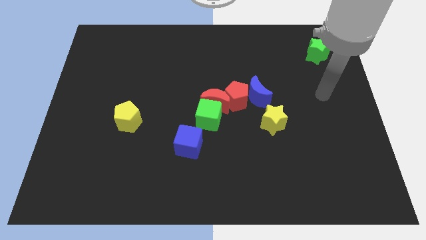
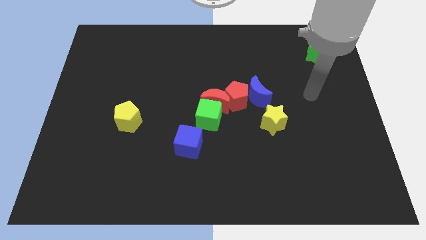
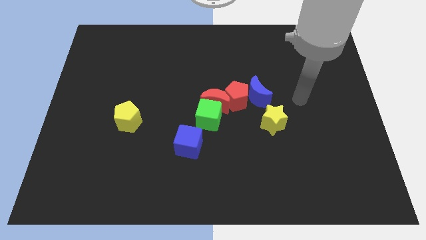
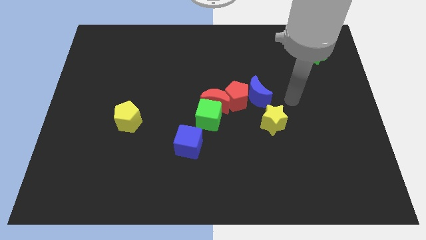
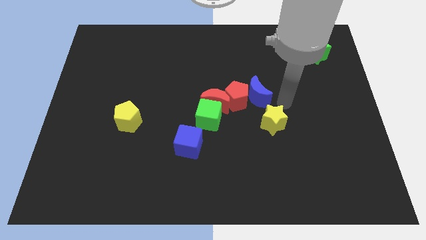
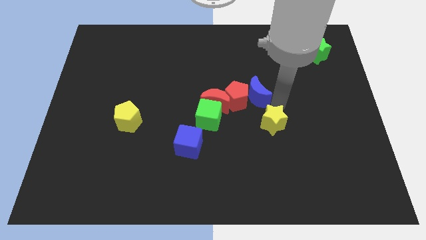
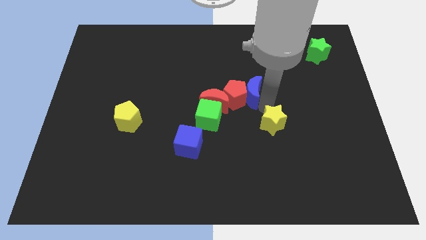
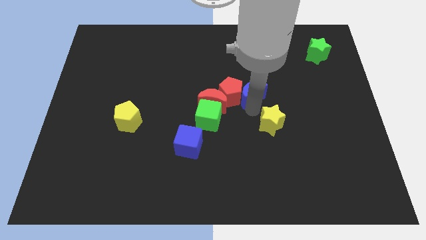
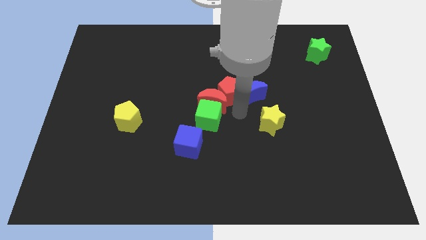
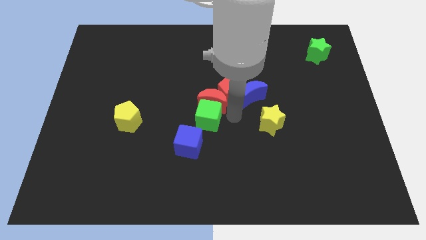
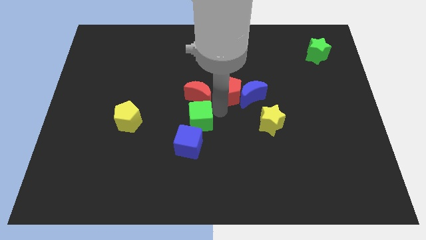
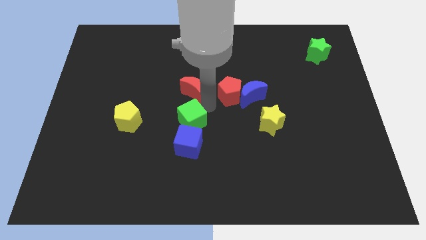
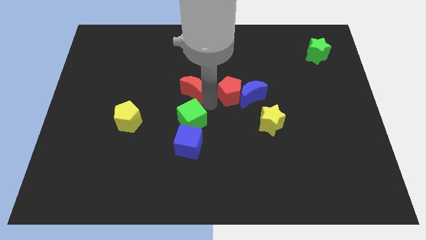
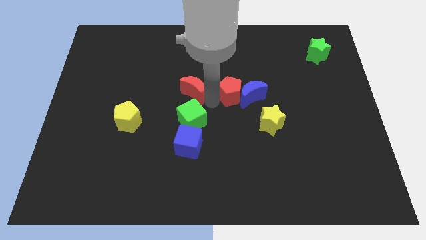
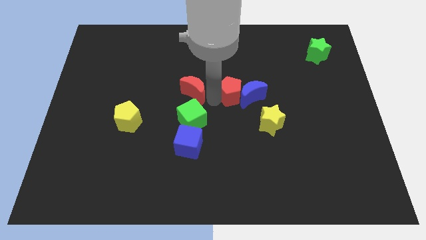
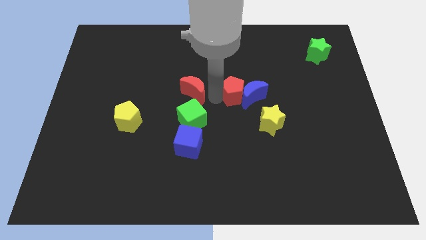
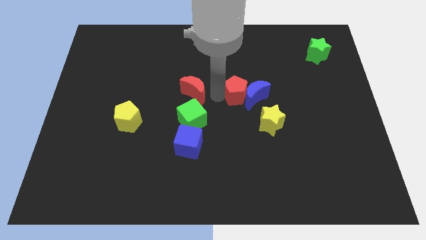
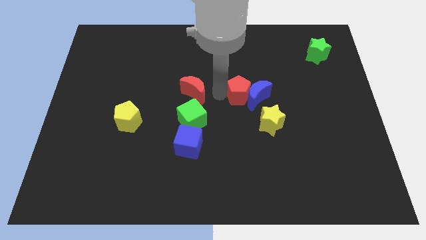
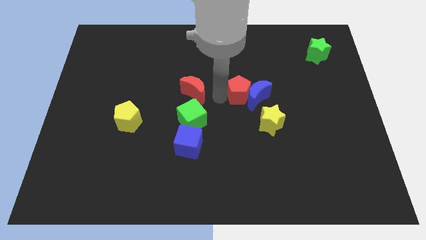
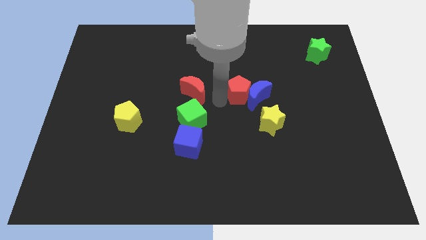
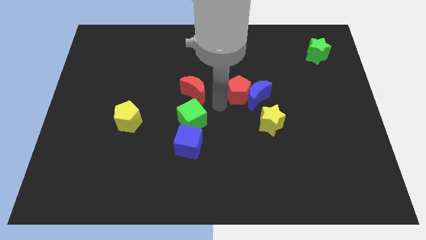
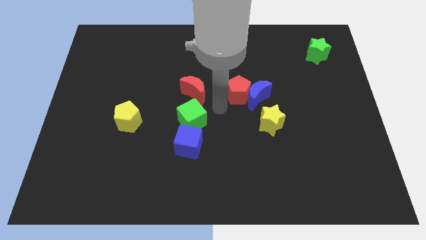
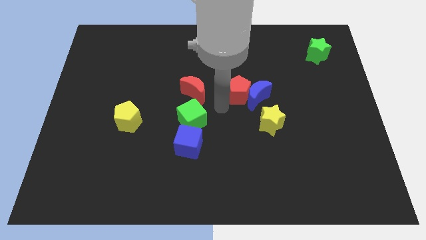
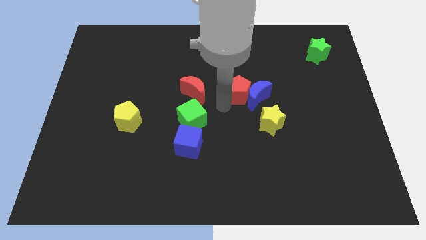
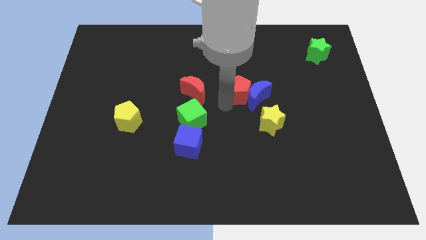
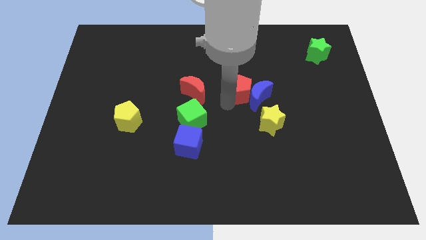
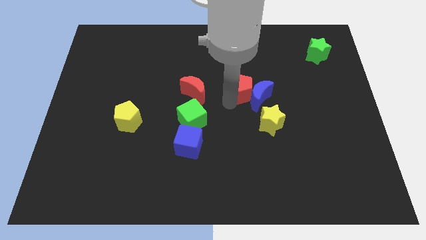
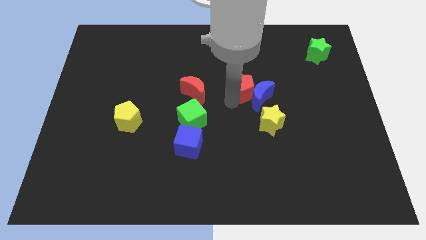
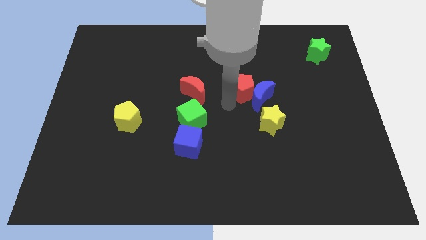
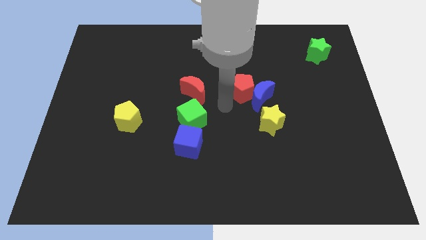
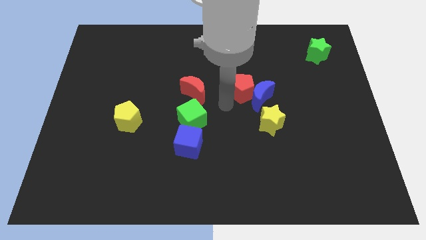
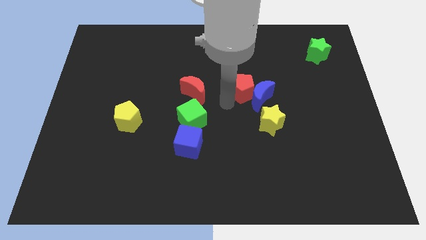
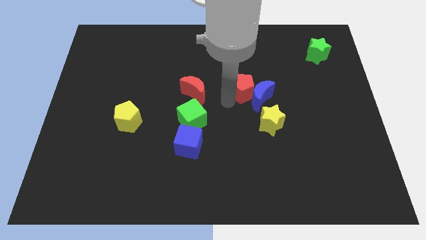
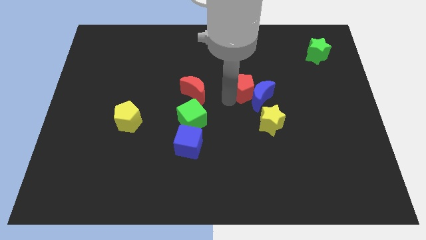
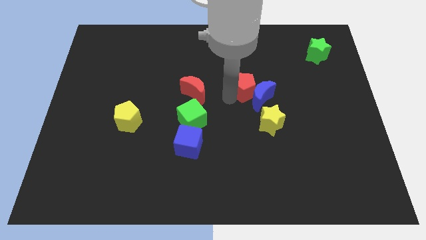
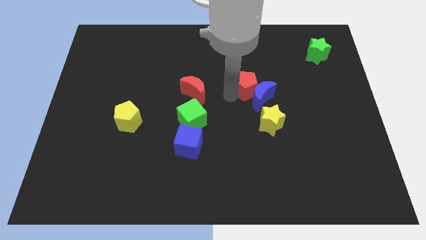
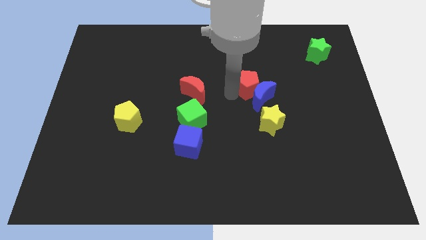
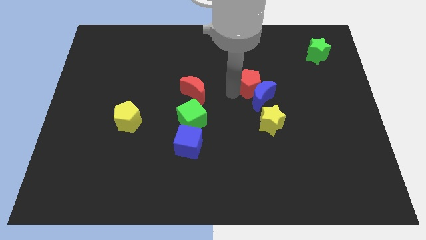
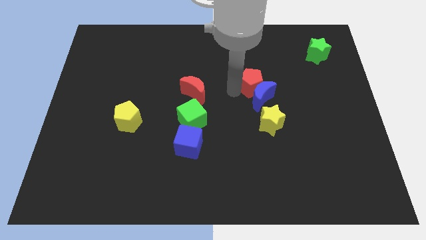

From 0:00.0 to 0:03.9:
move the red pentagon away from the red moon, blue moon, and green cube

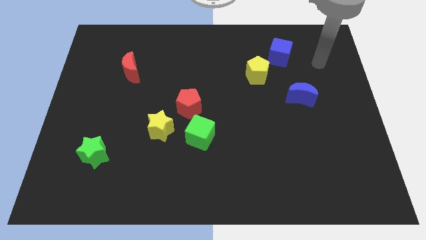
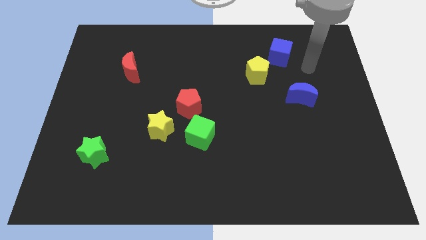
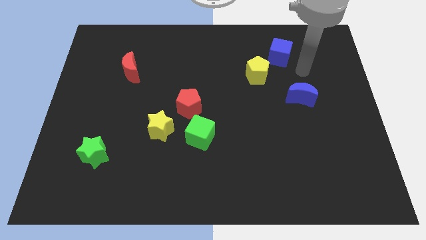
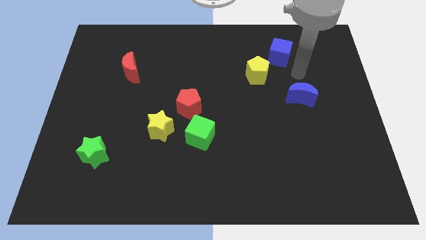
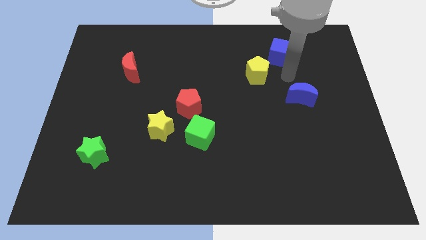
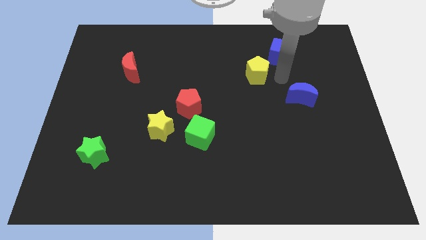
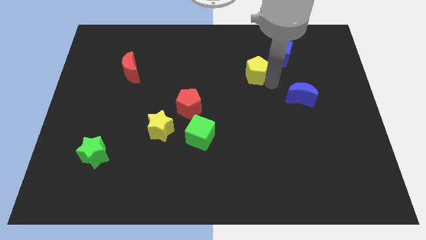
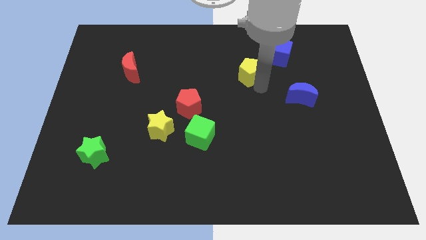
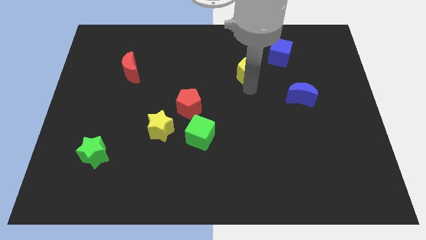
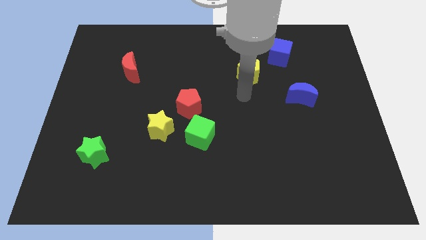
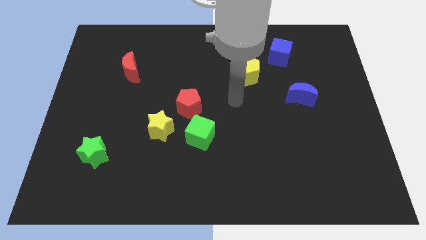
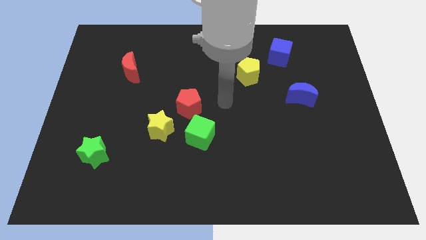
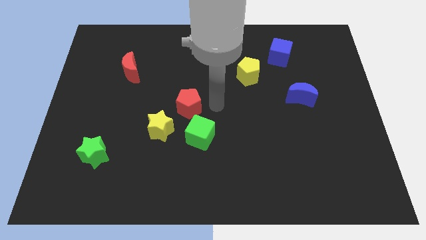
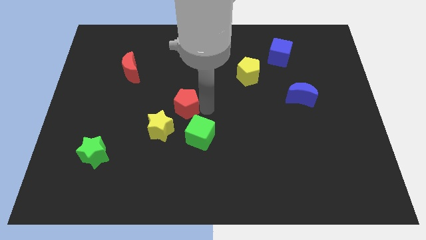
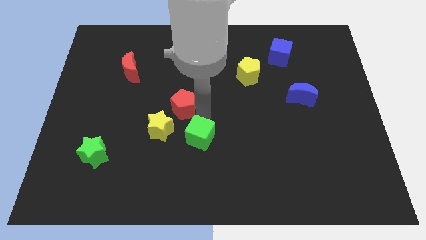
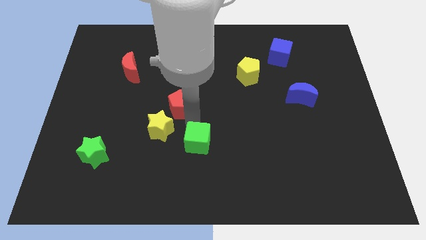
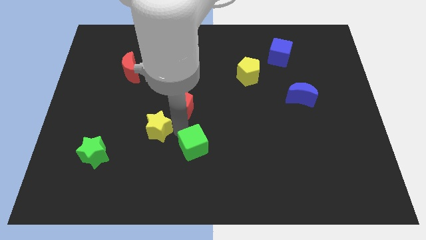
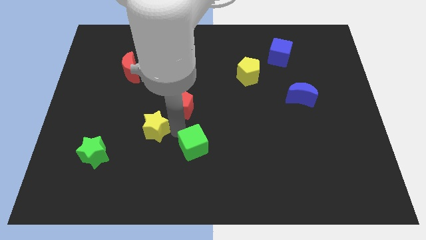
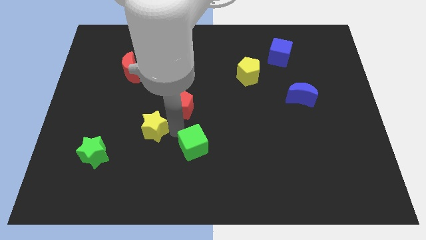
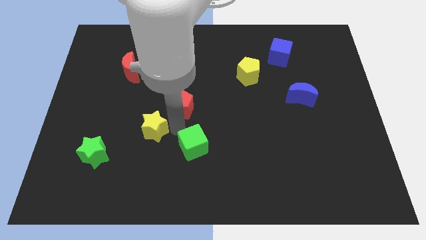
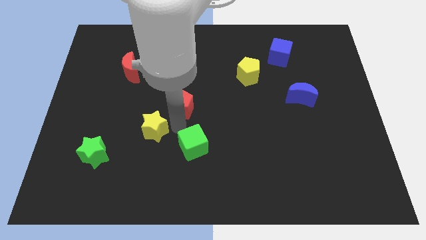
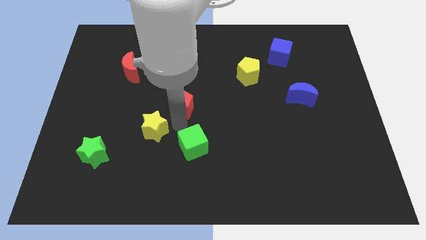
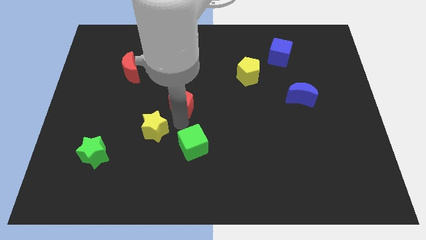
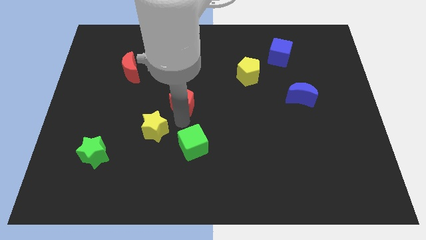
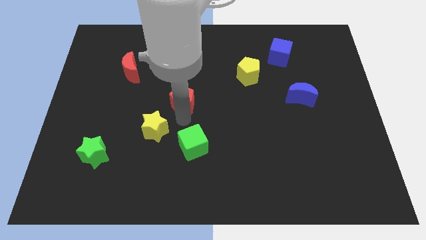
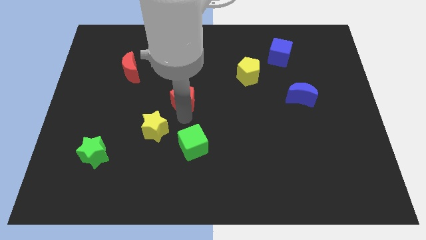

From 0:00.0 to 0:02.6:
separate the red pentagon from the green cube and yellow star

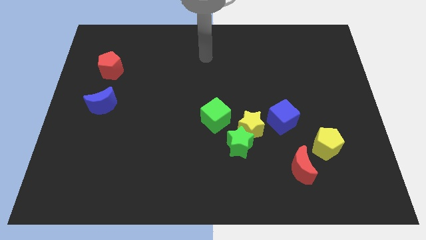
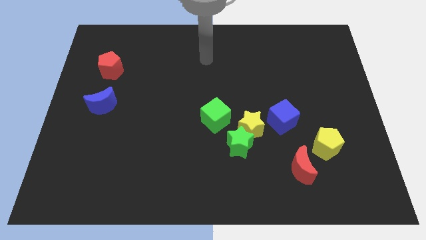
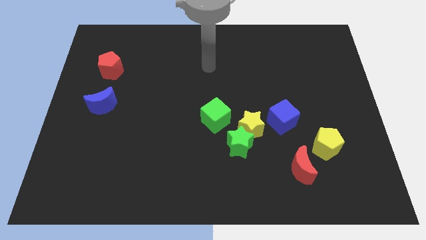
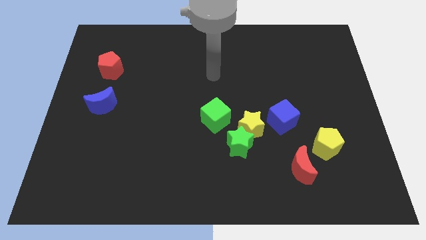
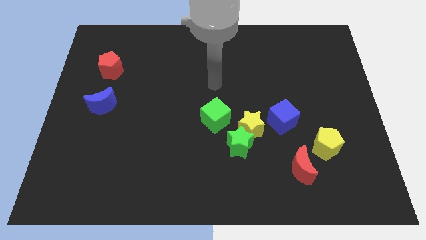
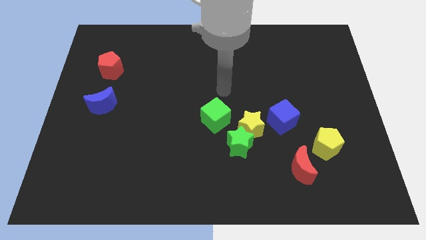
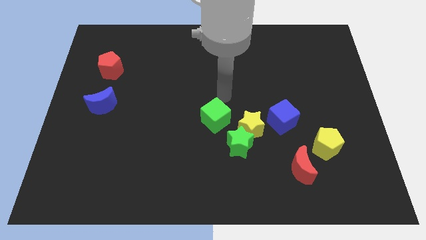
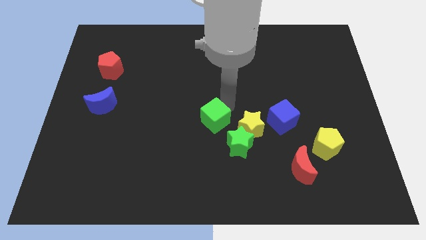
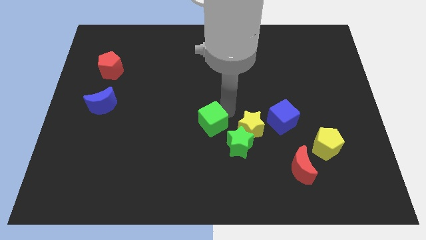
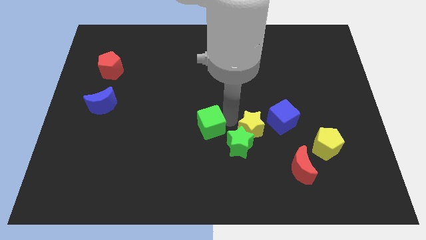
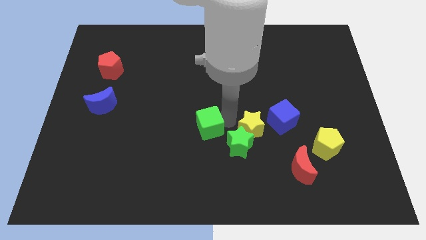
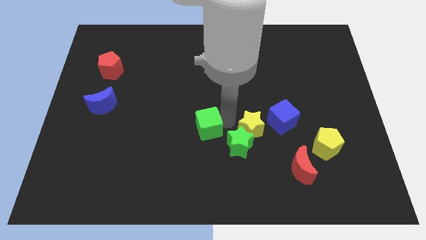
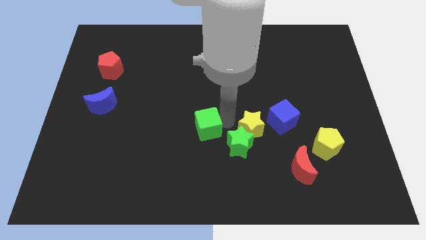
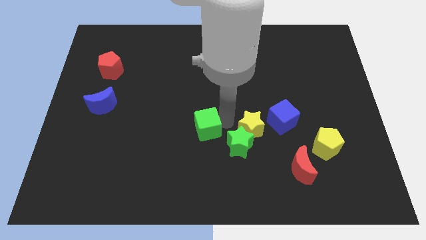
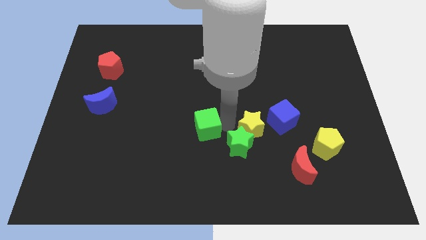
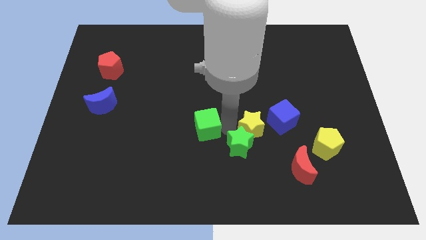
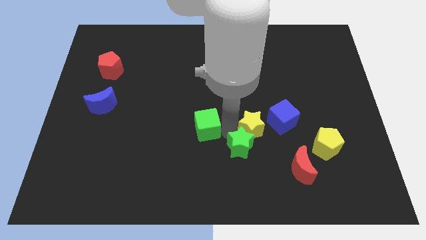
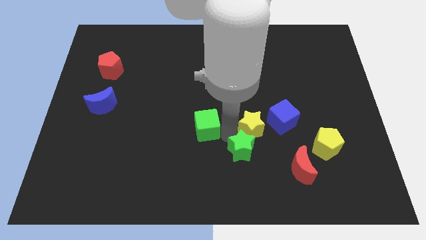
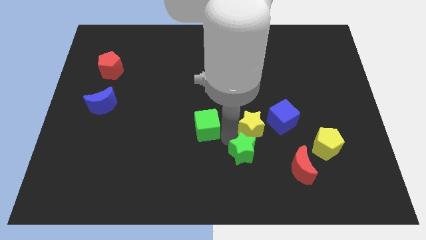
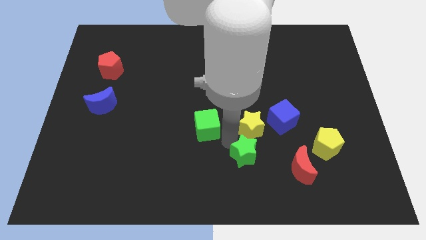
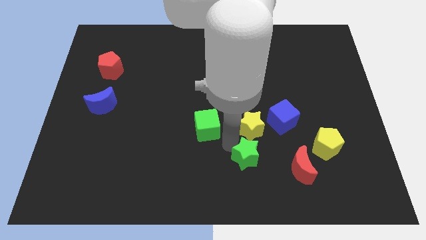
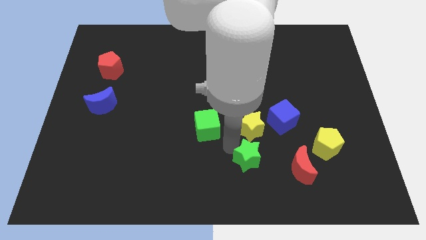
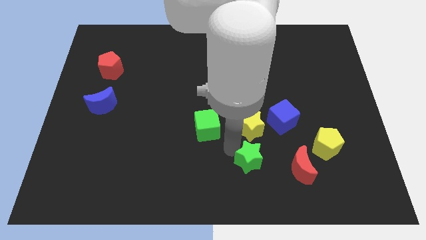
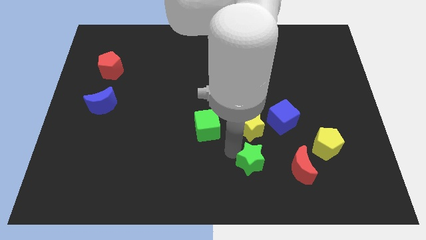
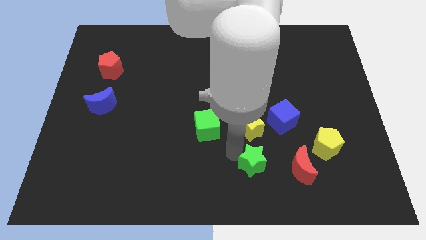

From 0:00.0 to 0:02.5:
separate the green star from the yellow star and green cube

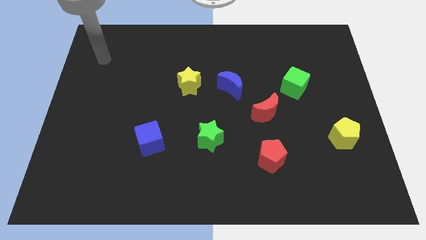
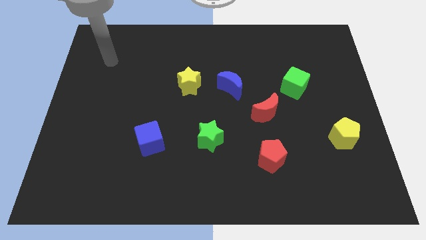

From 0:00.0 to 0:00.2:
separate the blue moon from the yellow star
